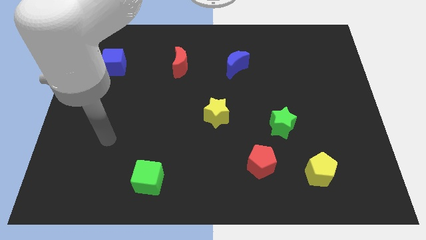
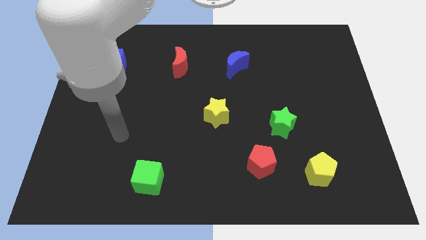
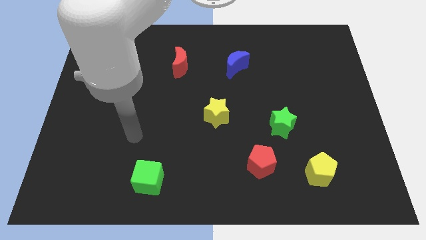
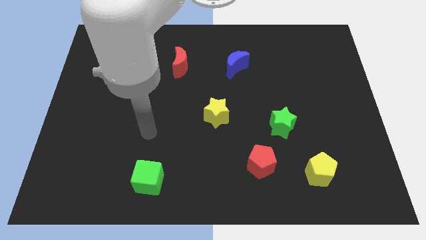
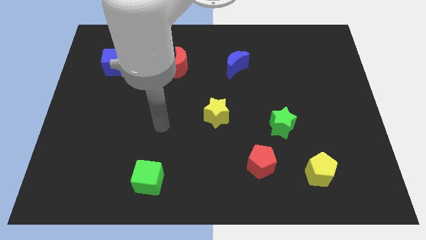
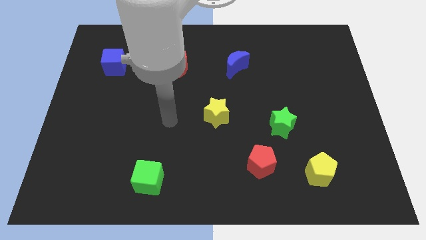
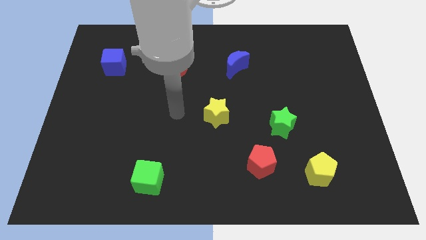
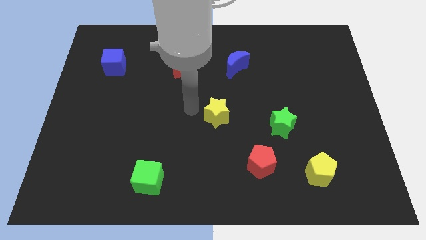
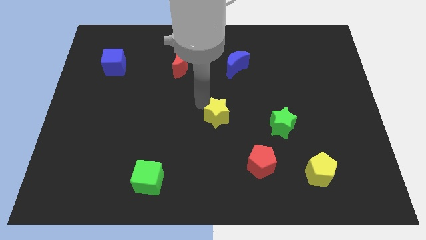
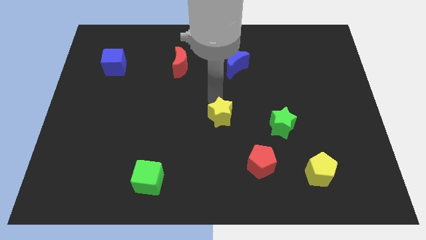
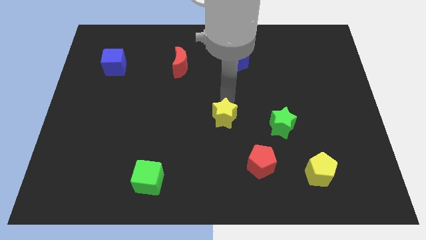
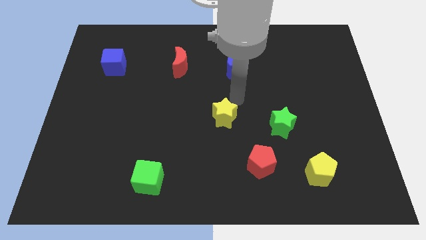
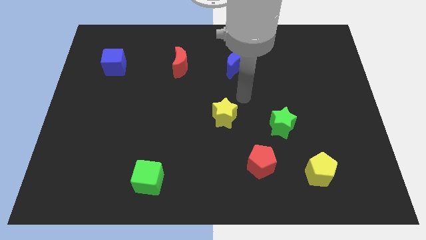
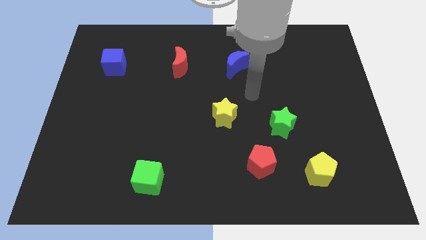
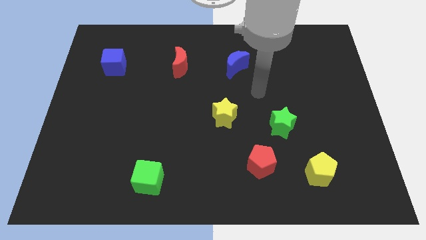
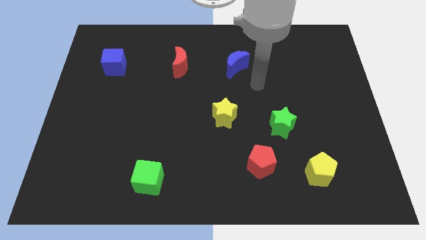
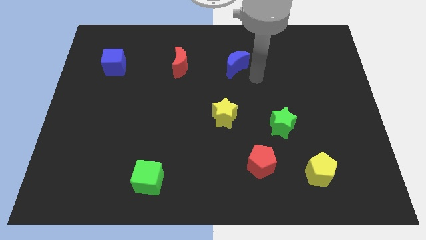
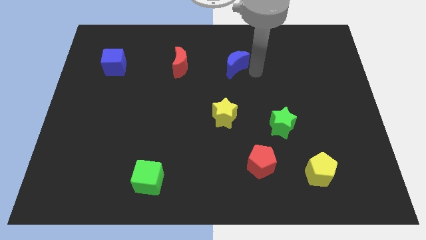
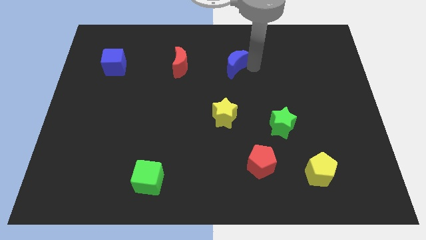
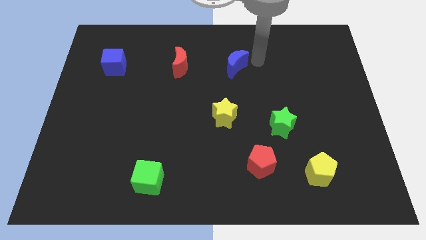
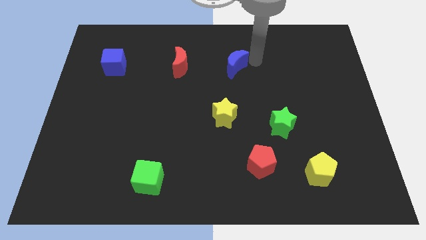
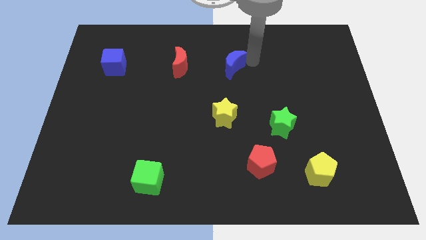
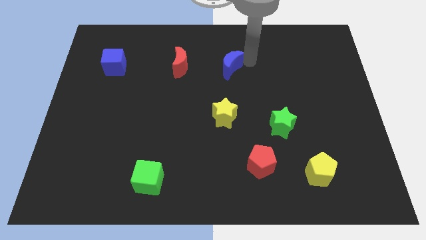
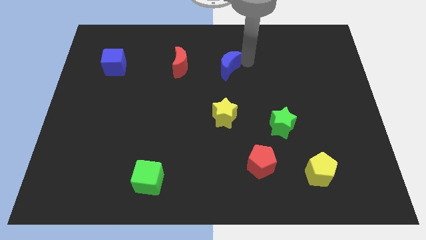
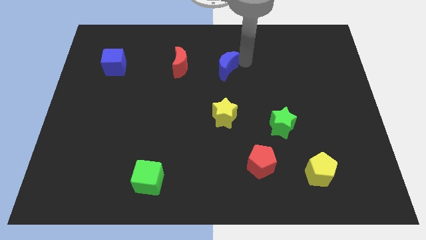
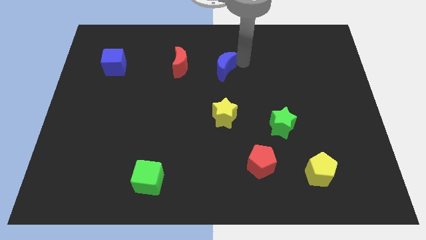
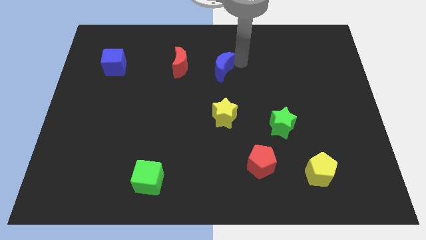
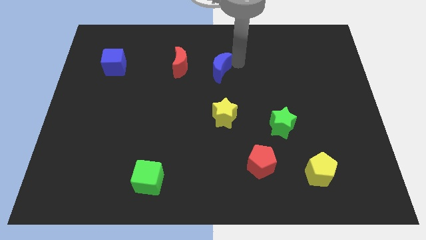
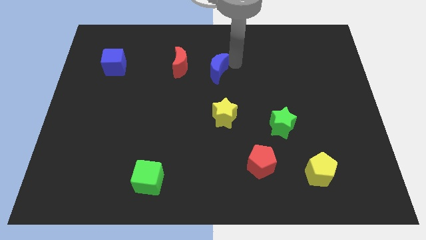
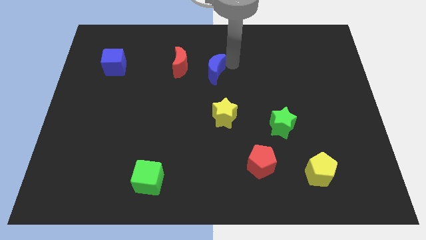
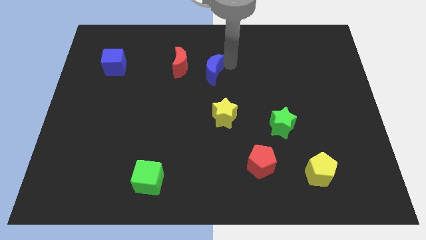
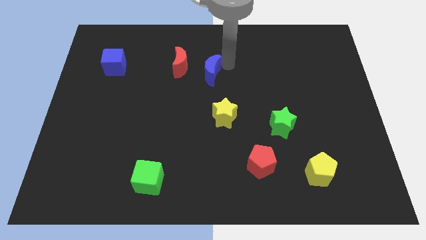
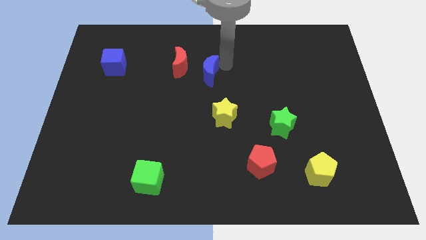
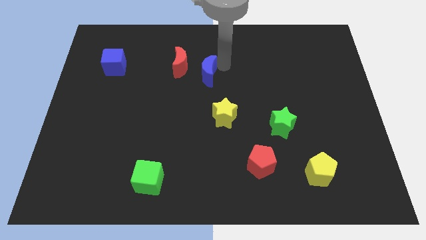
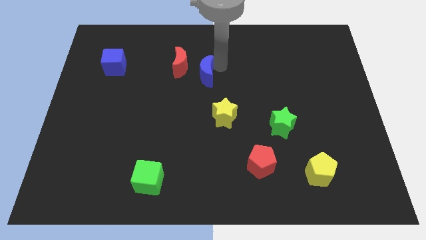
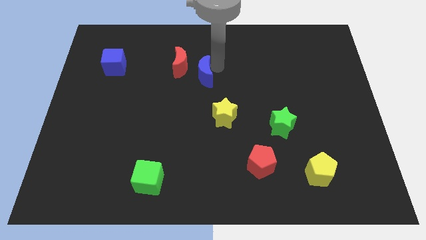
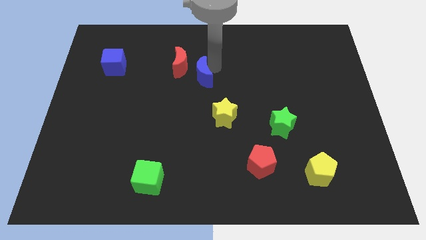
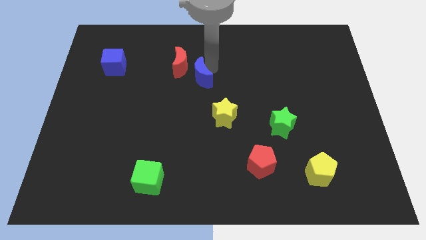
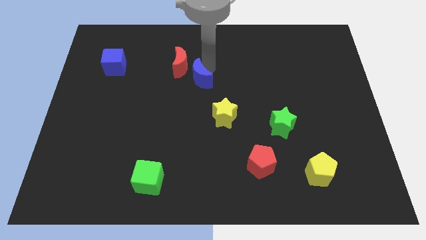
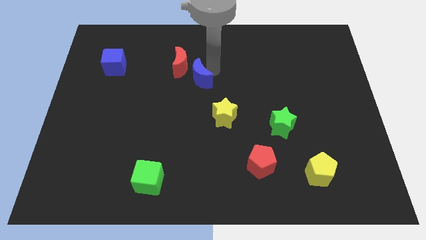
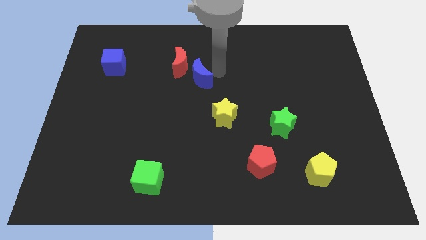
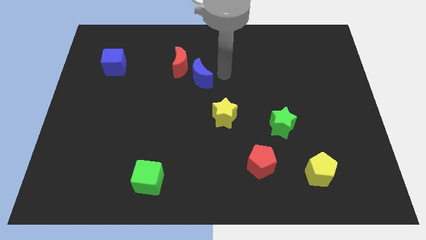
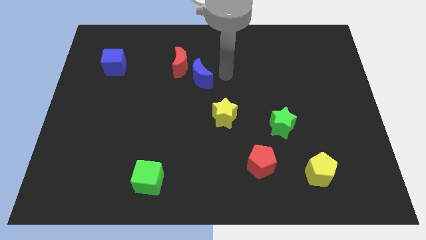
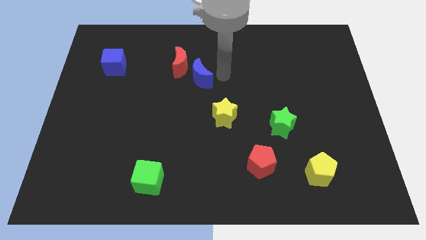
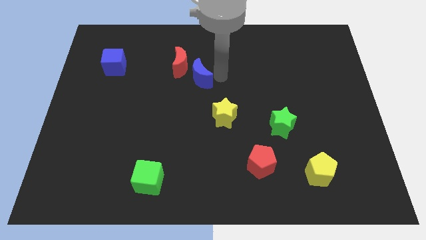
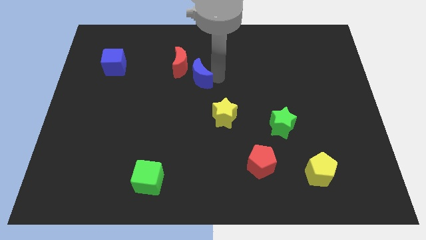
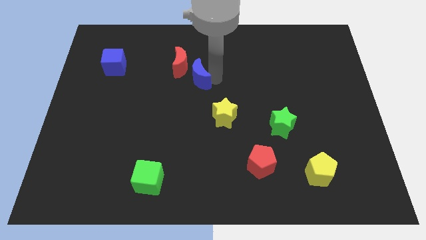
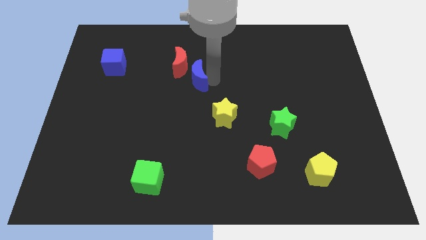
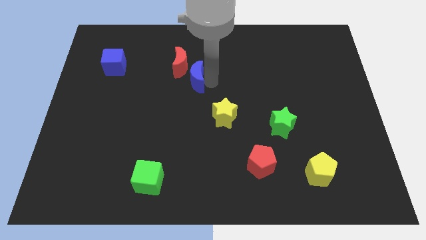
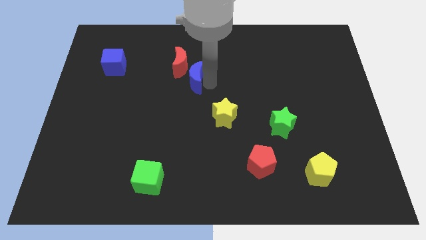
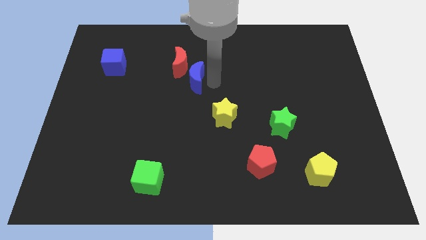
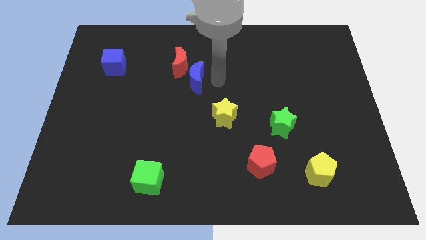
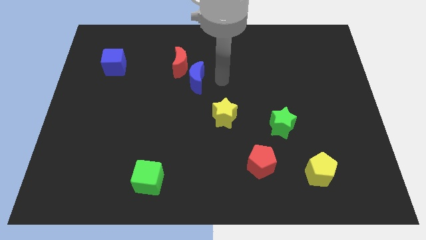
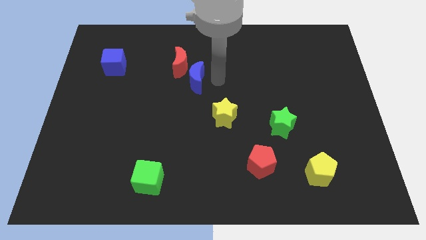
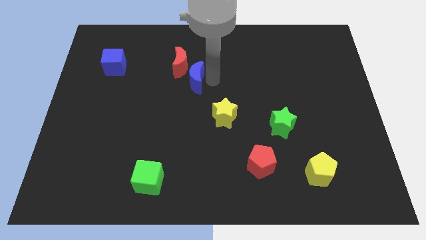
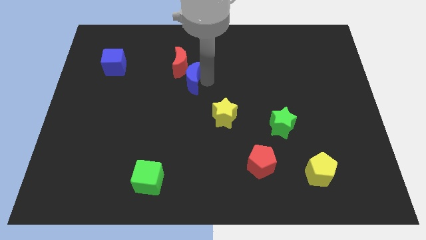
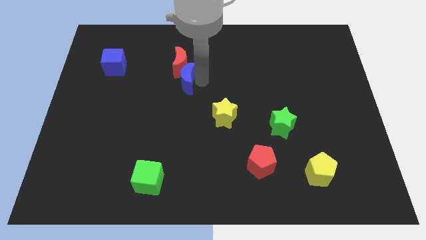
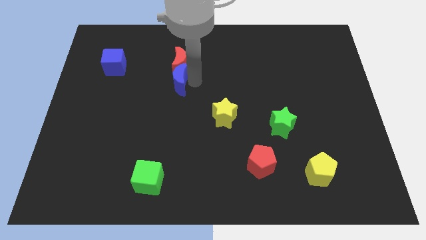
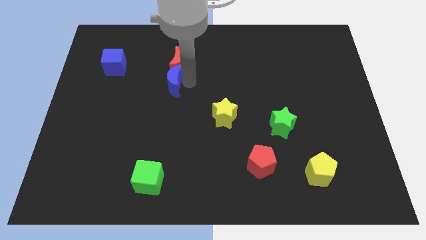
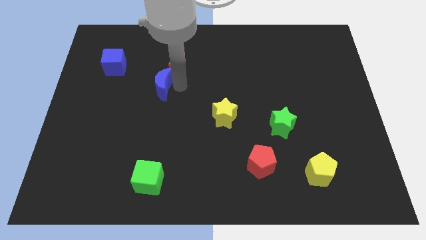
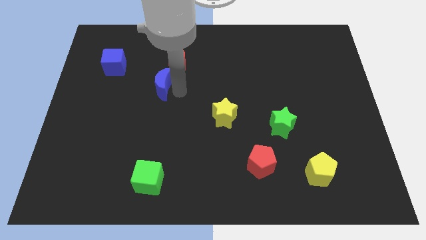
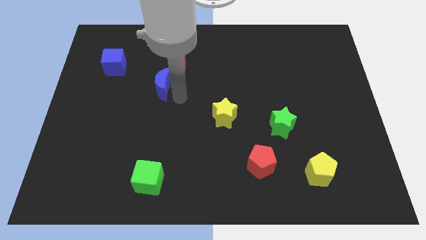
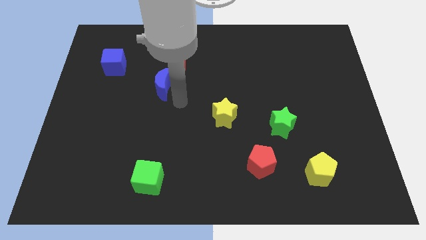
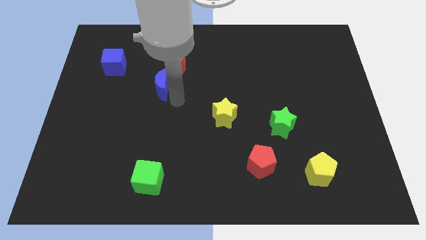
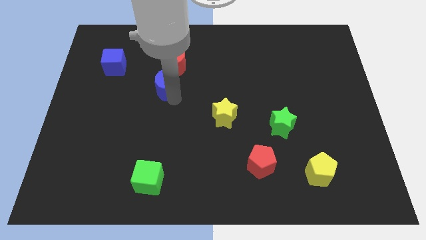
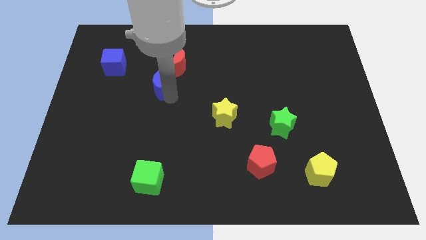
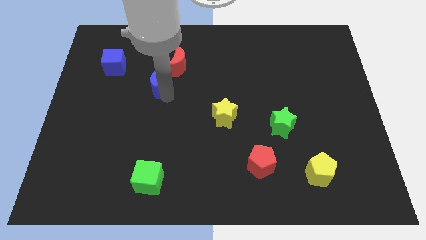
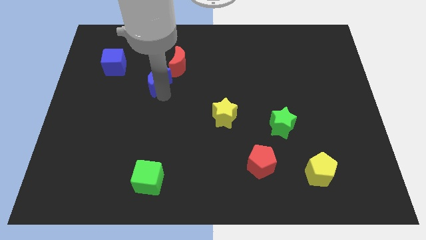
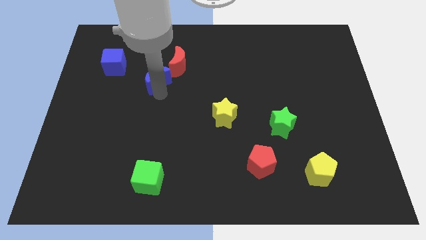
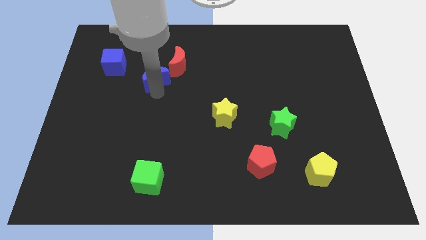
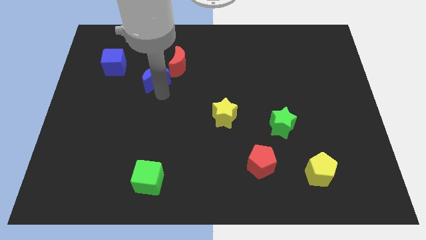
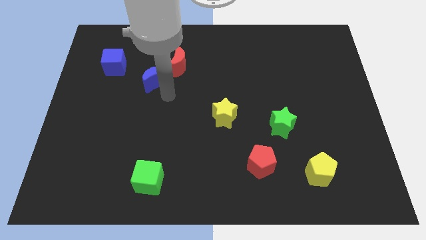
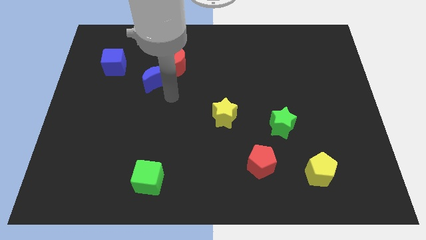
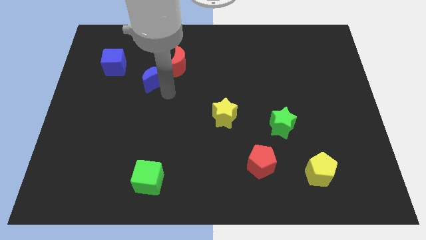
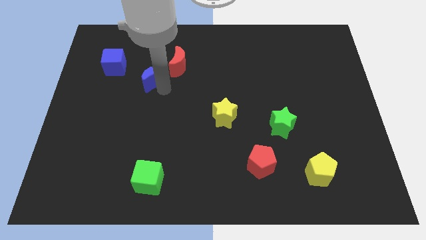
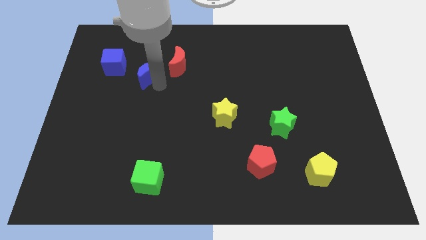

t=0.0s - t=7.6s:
move the blue moon just left of the red moon
